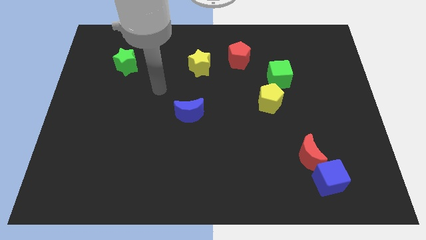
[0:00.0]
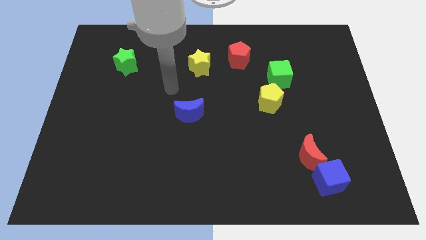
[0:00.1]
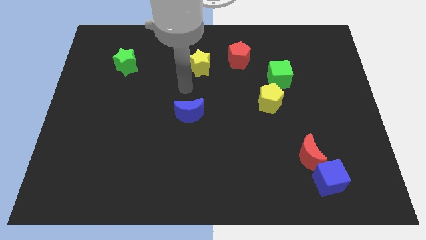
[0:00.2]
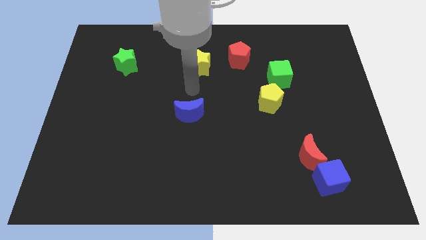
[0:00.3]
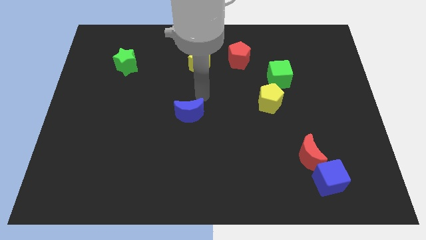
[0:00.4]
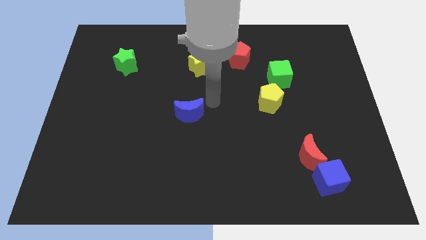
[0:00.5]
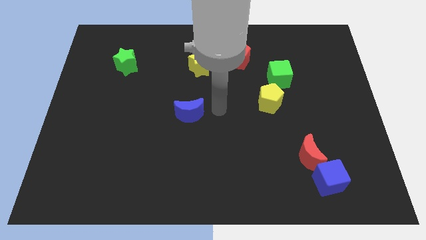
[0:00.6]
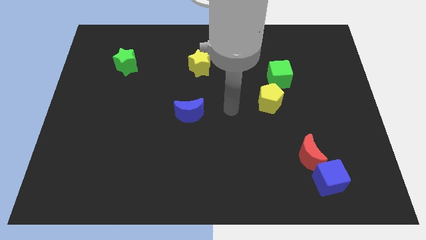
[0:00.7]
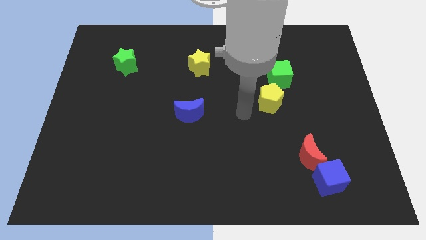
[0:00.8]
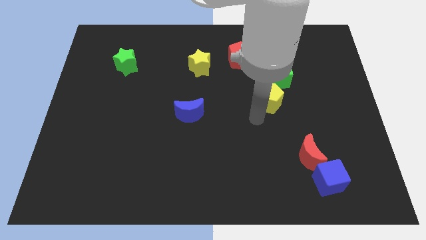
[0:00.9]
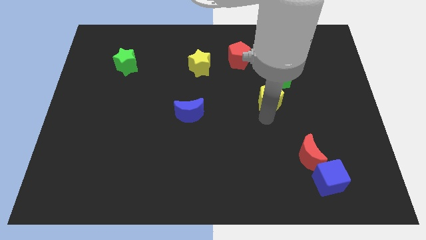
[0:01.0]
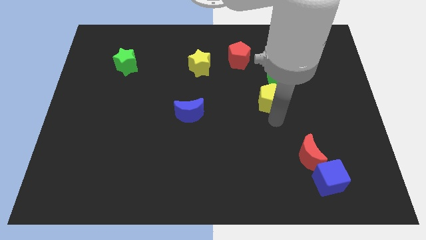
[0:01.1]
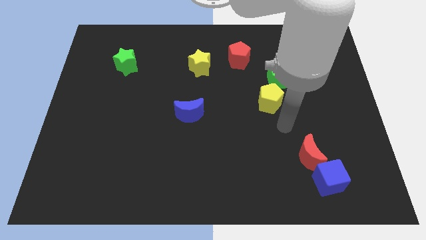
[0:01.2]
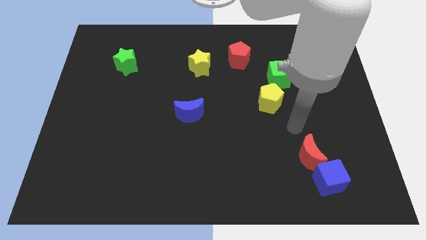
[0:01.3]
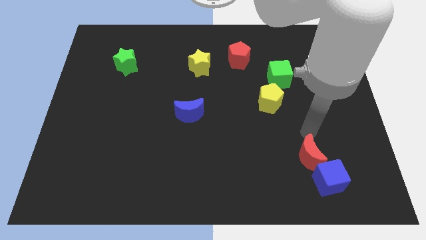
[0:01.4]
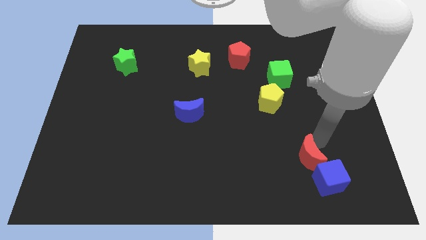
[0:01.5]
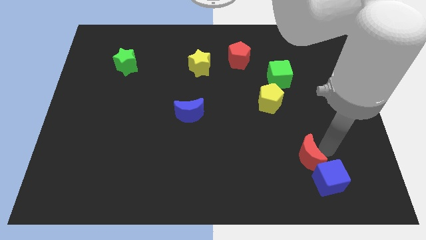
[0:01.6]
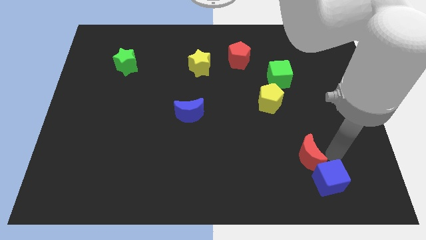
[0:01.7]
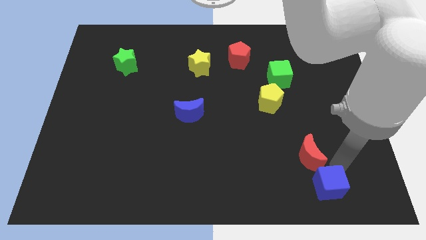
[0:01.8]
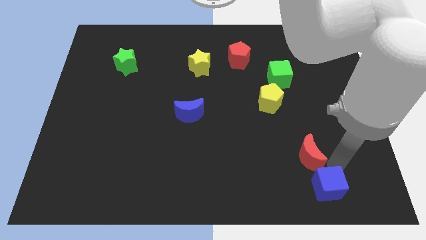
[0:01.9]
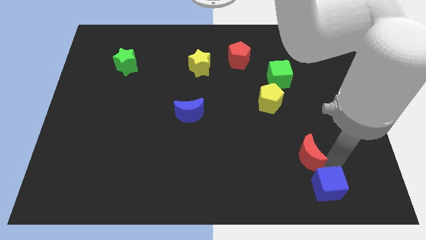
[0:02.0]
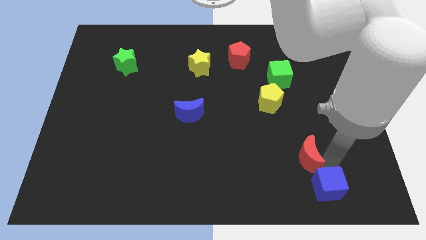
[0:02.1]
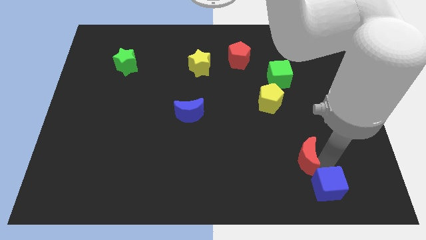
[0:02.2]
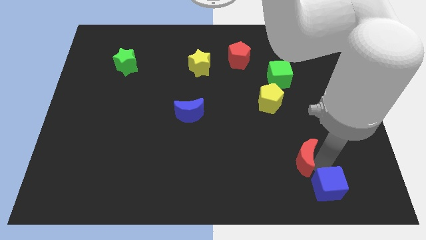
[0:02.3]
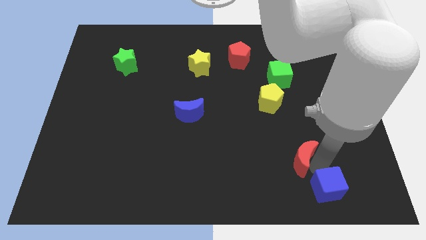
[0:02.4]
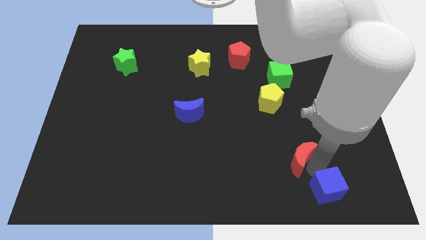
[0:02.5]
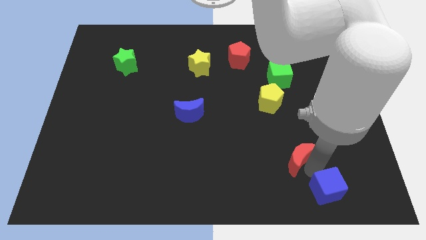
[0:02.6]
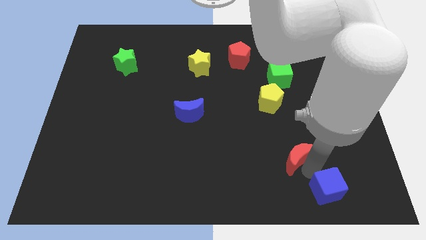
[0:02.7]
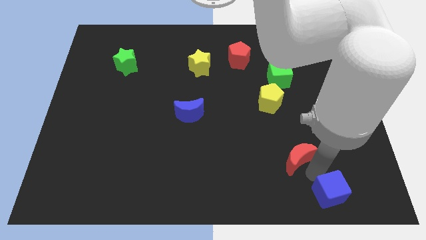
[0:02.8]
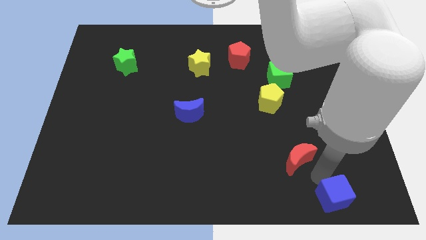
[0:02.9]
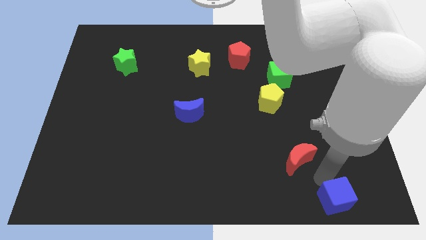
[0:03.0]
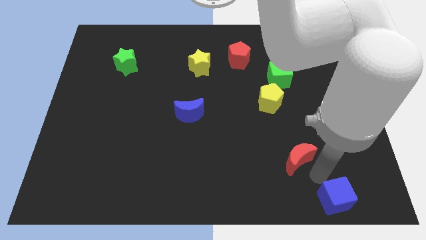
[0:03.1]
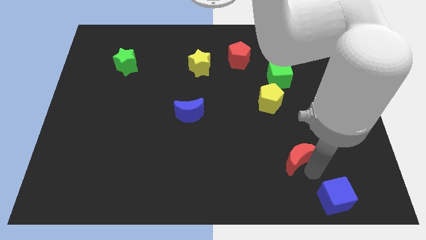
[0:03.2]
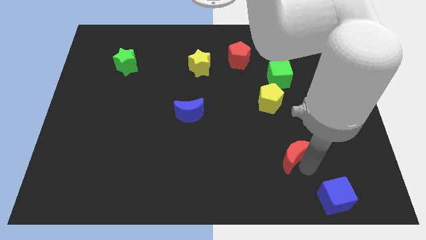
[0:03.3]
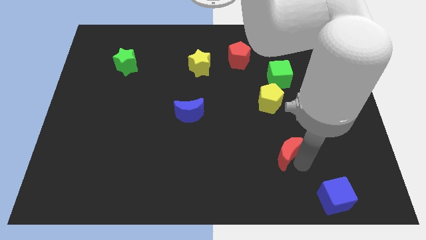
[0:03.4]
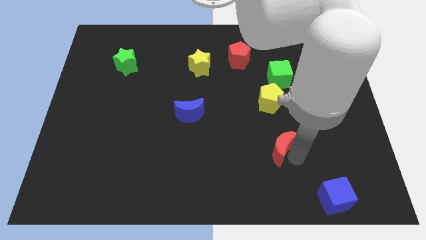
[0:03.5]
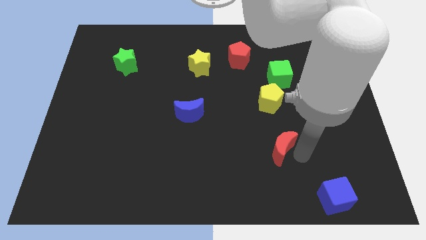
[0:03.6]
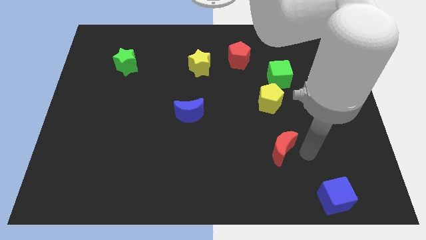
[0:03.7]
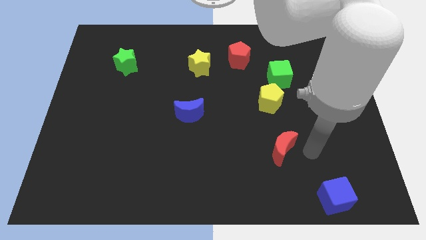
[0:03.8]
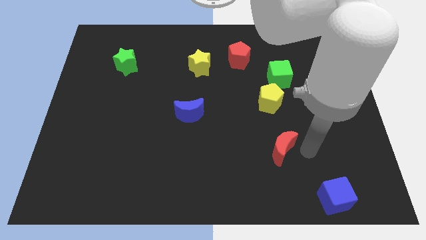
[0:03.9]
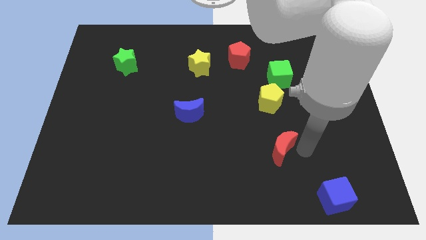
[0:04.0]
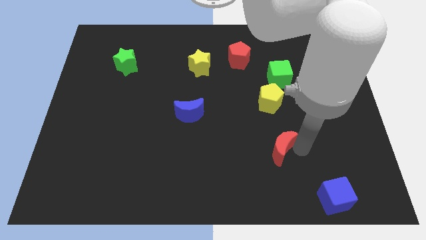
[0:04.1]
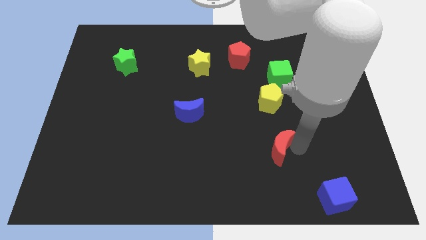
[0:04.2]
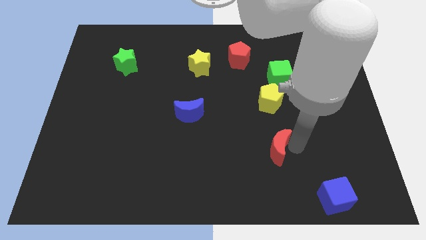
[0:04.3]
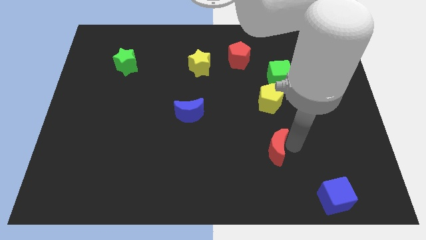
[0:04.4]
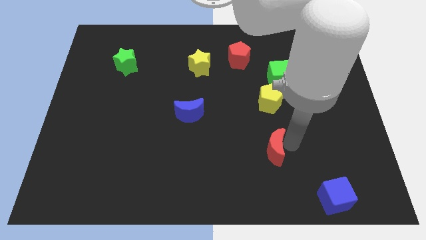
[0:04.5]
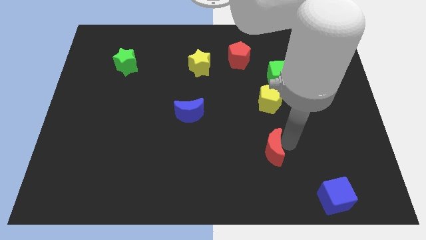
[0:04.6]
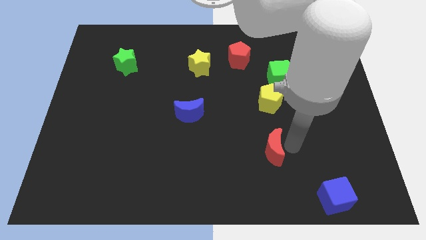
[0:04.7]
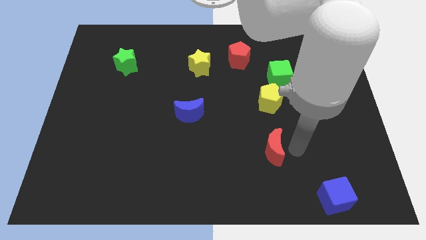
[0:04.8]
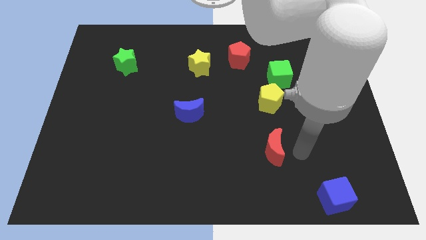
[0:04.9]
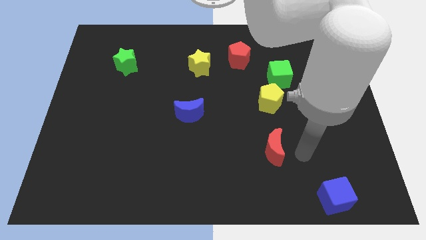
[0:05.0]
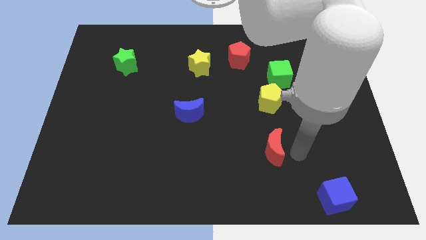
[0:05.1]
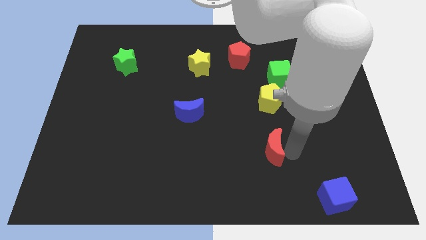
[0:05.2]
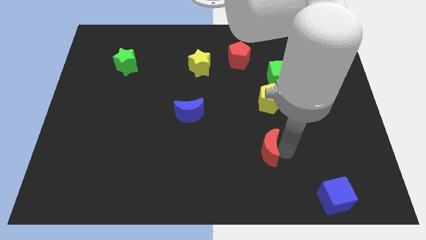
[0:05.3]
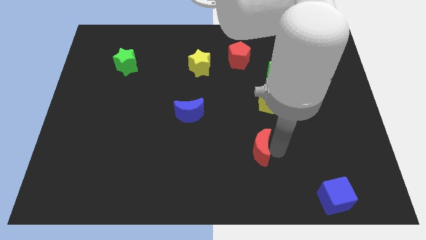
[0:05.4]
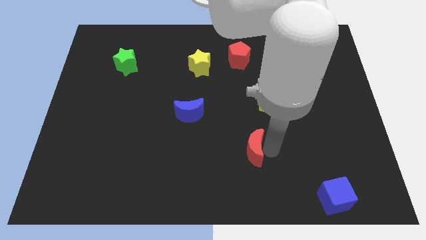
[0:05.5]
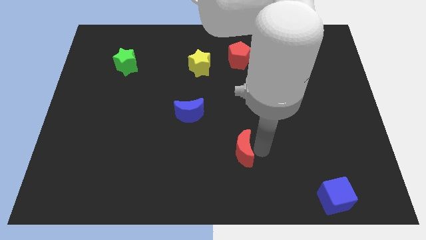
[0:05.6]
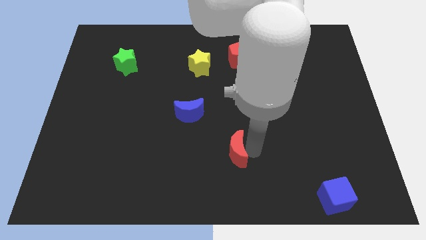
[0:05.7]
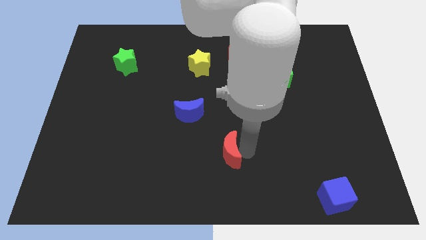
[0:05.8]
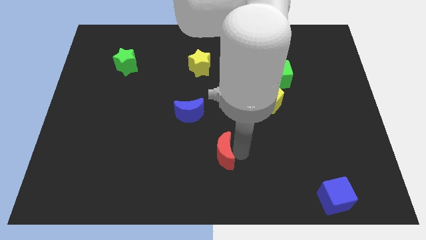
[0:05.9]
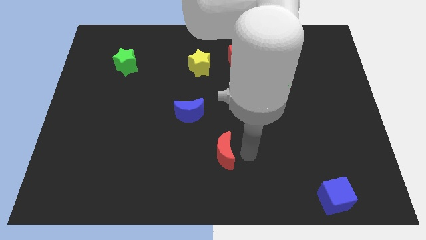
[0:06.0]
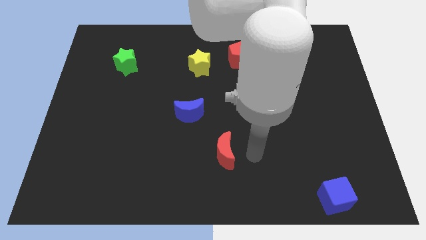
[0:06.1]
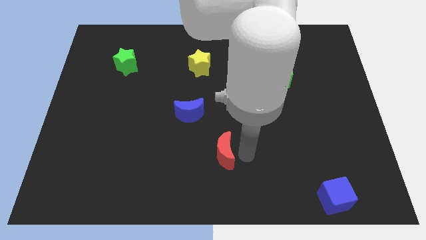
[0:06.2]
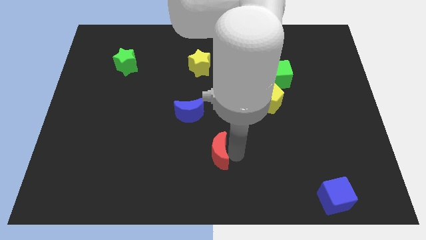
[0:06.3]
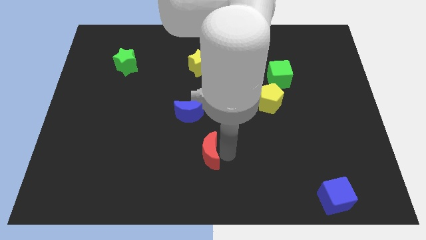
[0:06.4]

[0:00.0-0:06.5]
move the red moon left

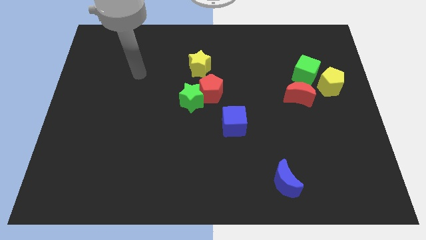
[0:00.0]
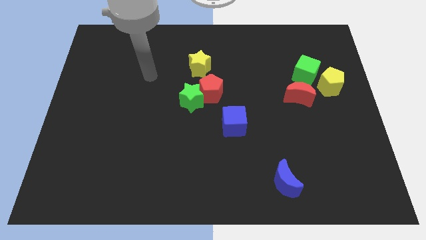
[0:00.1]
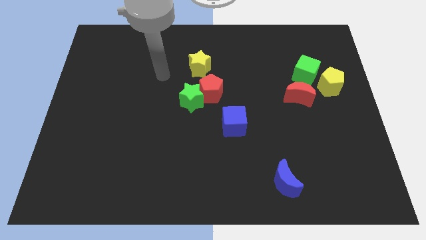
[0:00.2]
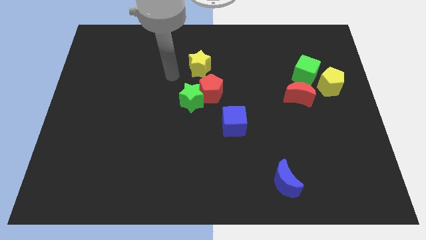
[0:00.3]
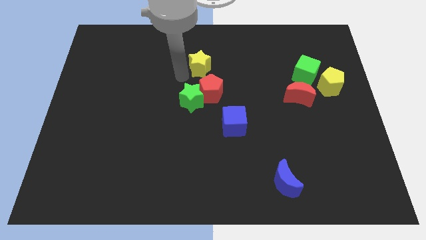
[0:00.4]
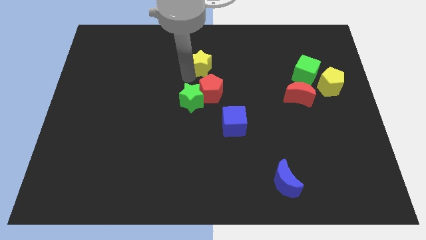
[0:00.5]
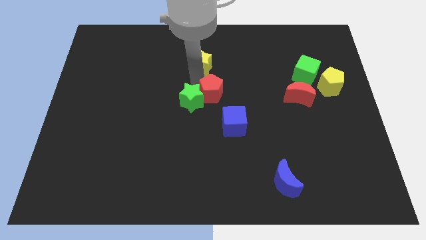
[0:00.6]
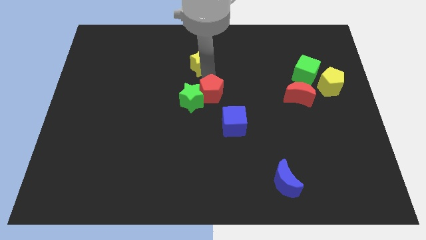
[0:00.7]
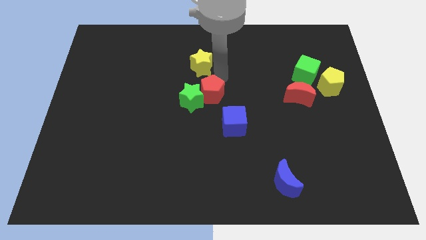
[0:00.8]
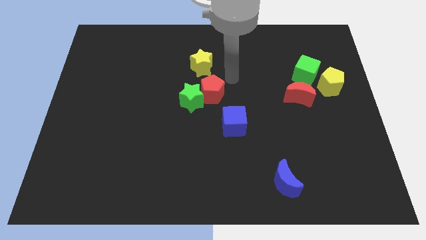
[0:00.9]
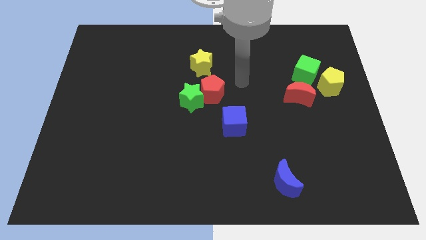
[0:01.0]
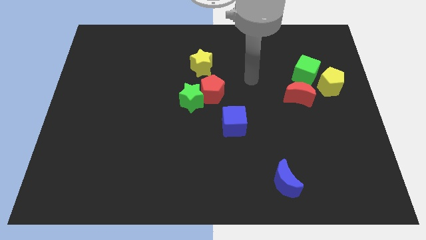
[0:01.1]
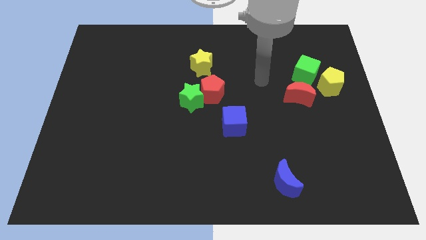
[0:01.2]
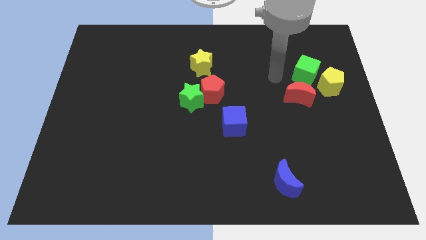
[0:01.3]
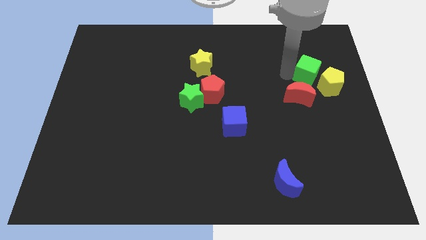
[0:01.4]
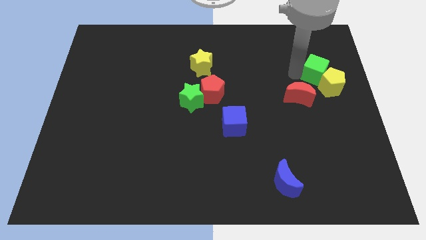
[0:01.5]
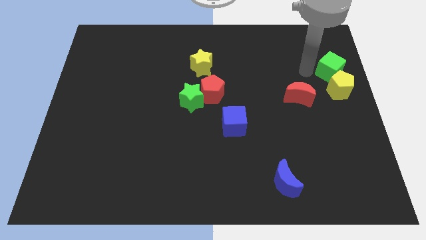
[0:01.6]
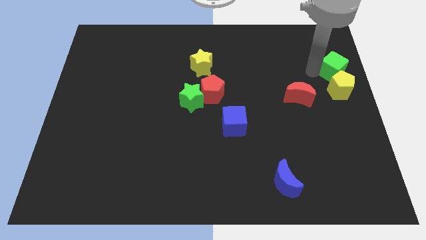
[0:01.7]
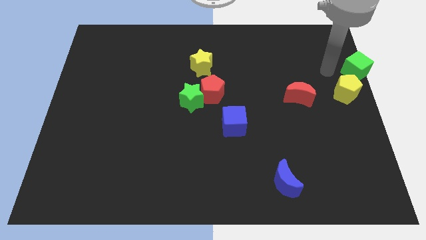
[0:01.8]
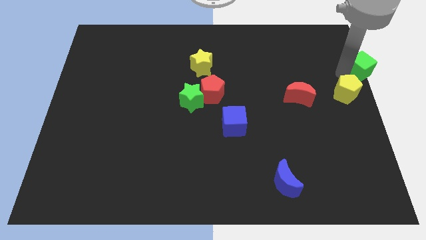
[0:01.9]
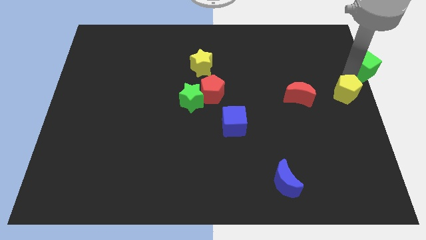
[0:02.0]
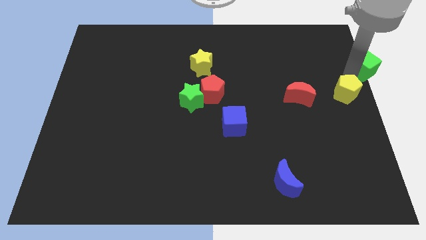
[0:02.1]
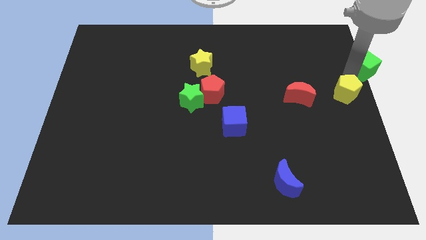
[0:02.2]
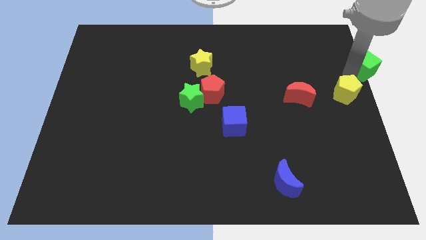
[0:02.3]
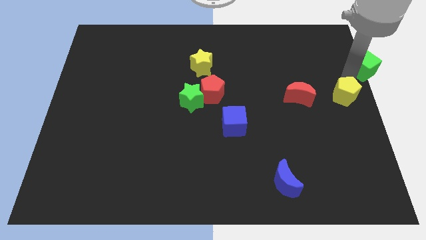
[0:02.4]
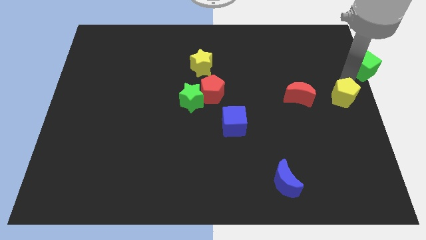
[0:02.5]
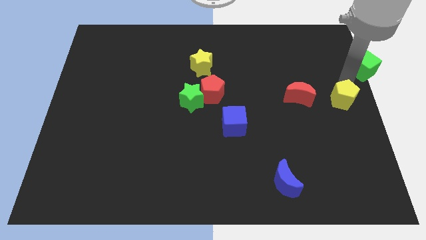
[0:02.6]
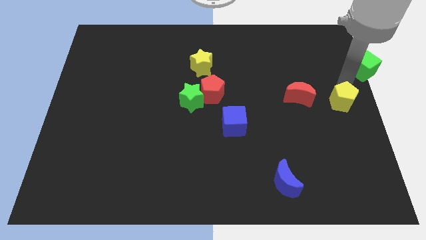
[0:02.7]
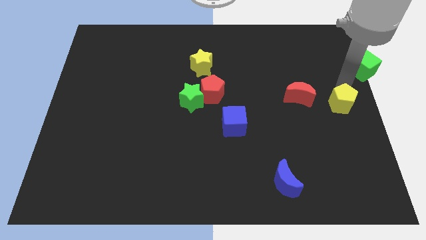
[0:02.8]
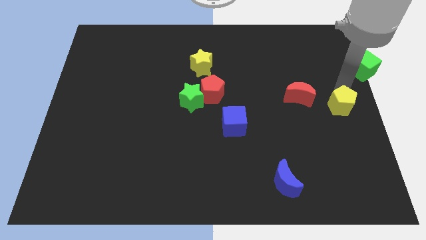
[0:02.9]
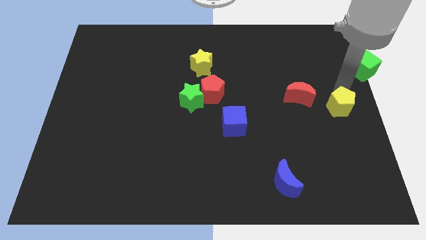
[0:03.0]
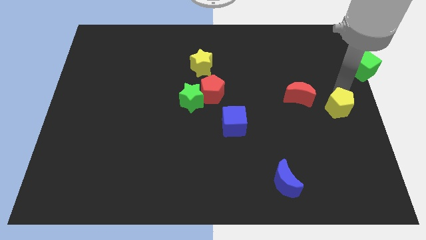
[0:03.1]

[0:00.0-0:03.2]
slightly slide the yellow pentagon down
